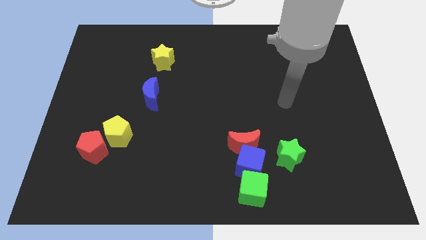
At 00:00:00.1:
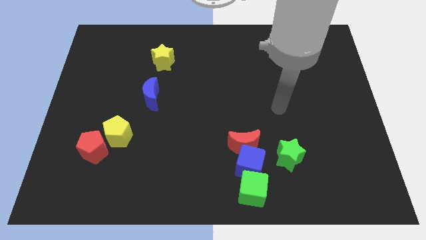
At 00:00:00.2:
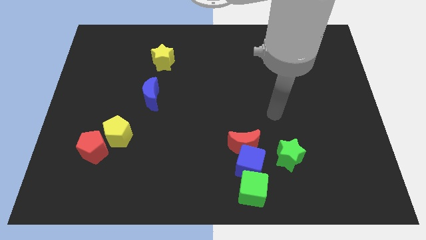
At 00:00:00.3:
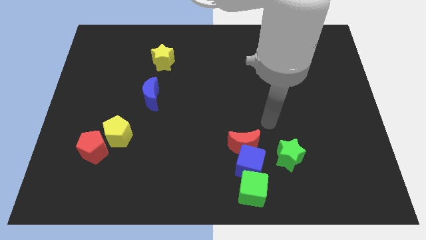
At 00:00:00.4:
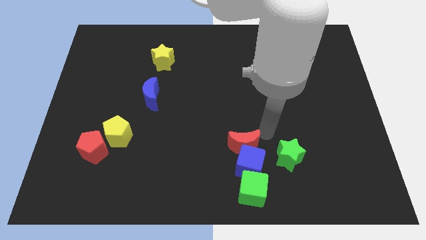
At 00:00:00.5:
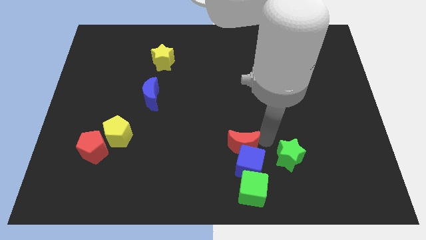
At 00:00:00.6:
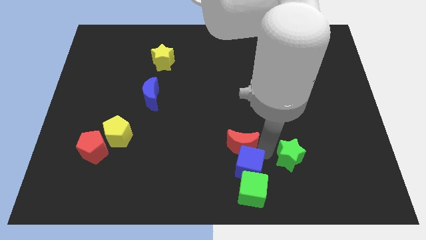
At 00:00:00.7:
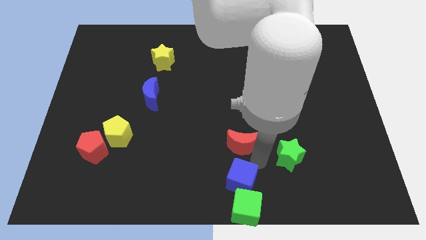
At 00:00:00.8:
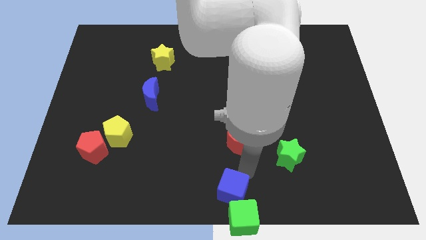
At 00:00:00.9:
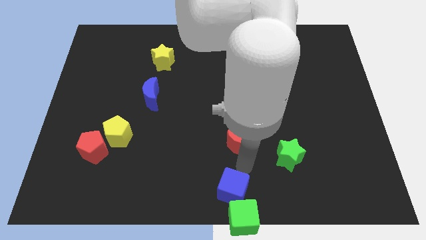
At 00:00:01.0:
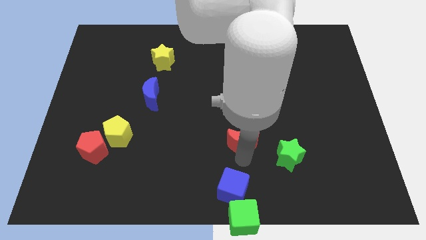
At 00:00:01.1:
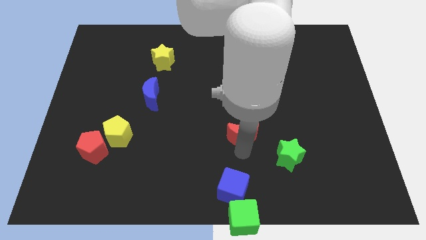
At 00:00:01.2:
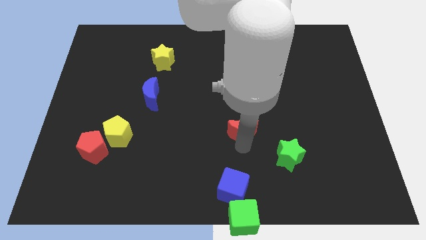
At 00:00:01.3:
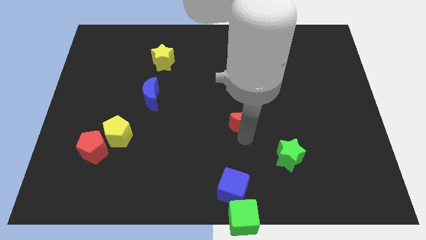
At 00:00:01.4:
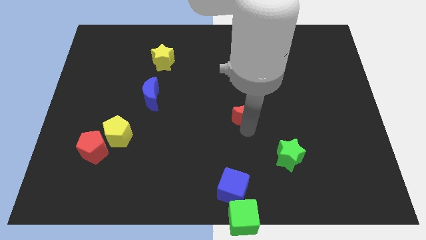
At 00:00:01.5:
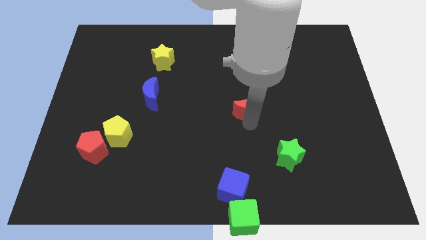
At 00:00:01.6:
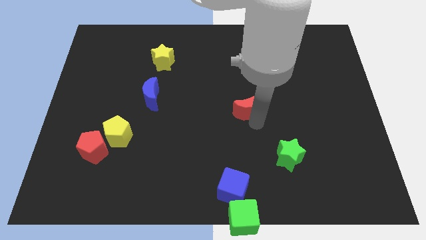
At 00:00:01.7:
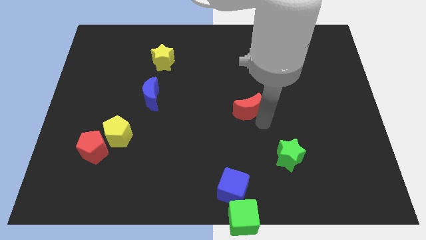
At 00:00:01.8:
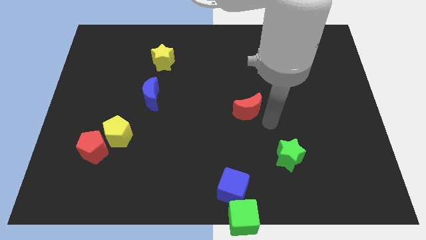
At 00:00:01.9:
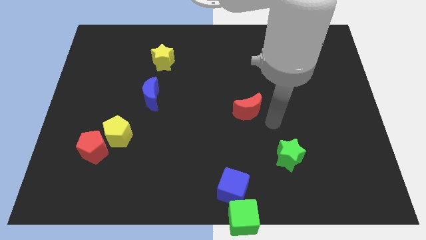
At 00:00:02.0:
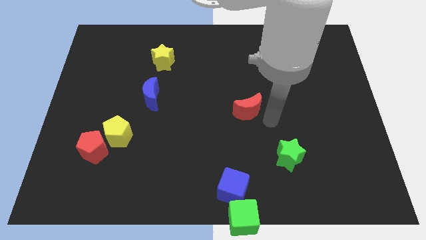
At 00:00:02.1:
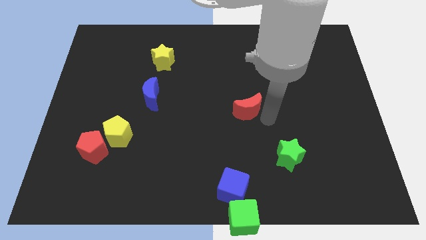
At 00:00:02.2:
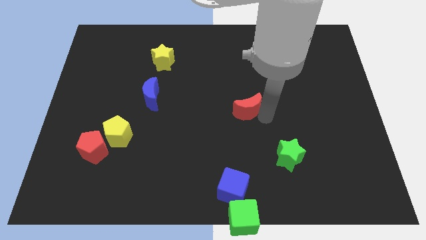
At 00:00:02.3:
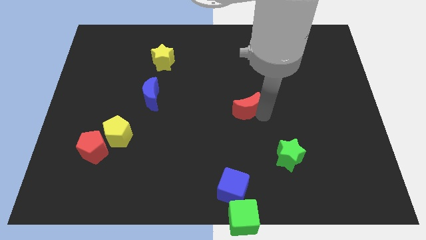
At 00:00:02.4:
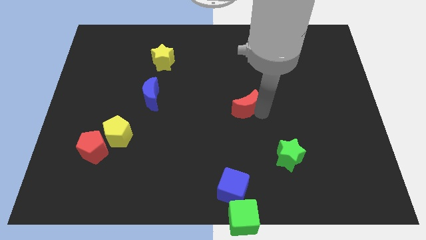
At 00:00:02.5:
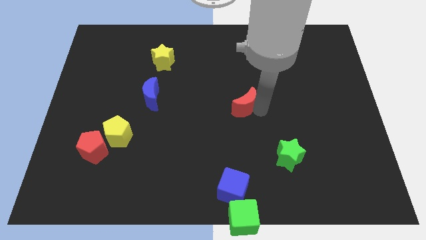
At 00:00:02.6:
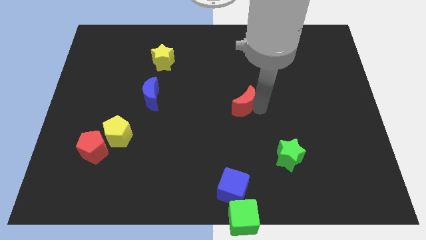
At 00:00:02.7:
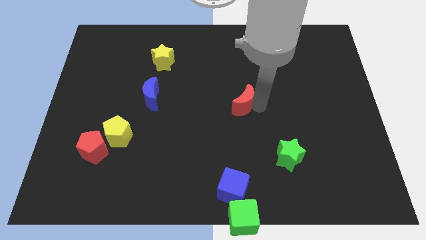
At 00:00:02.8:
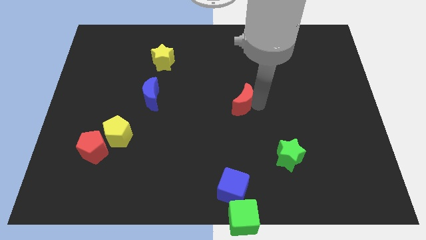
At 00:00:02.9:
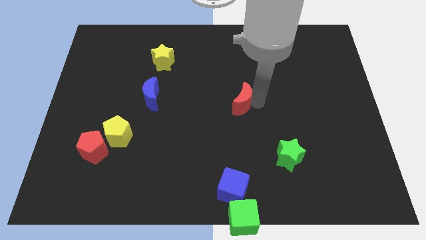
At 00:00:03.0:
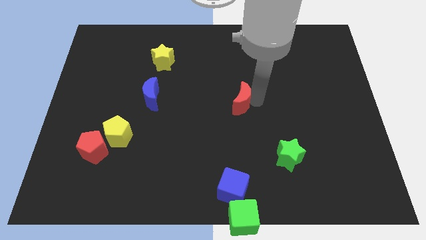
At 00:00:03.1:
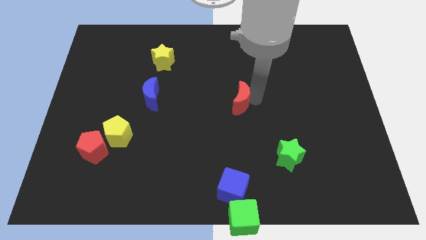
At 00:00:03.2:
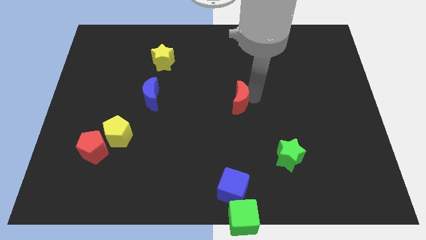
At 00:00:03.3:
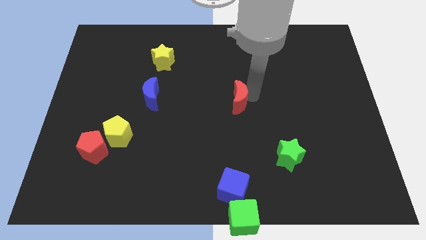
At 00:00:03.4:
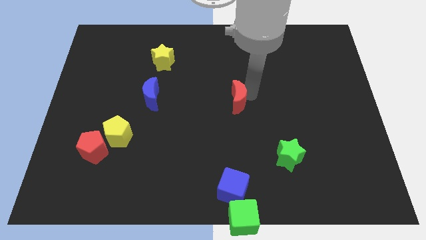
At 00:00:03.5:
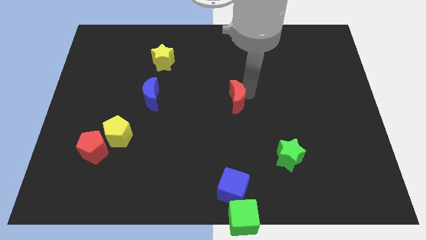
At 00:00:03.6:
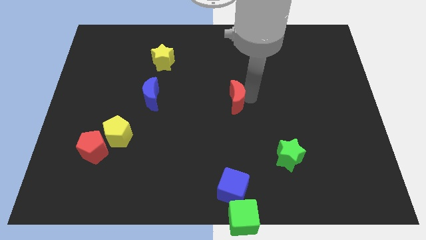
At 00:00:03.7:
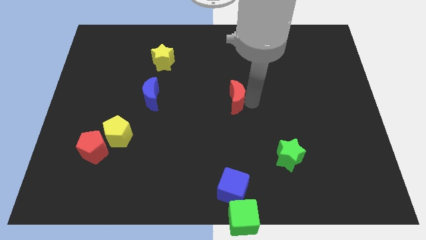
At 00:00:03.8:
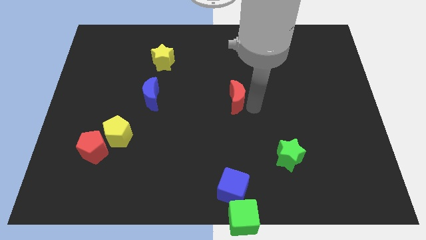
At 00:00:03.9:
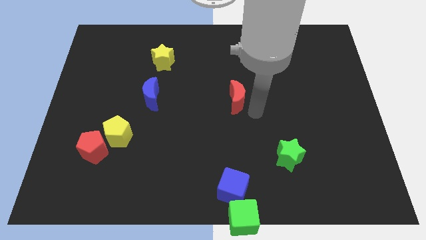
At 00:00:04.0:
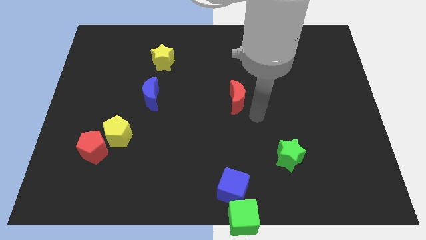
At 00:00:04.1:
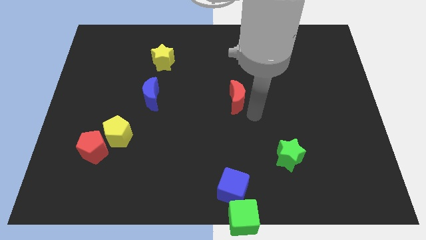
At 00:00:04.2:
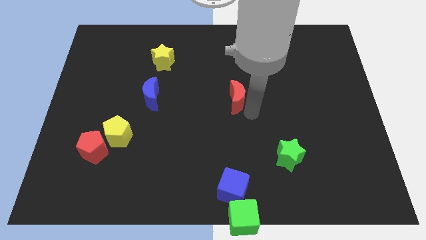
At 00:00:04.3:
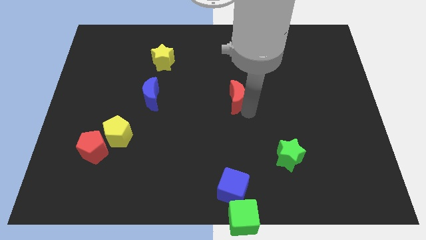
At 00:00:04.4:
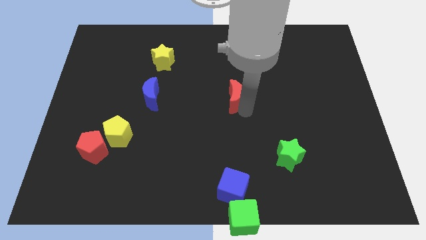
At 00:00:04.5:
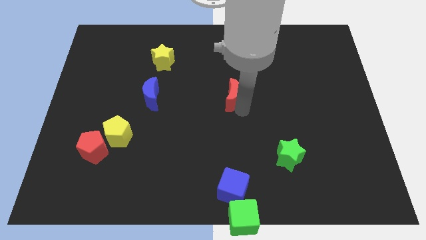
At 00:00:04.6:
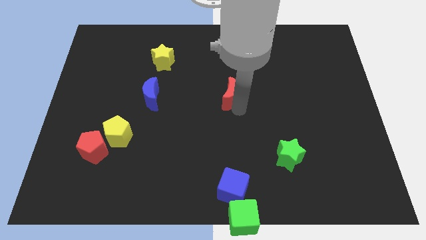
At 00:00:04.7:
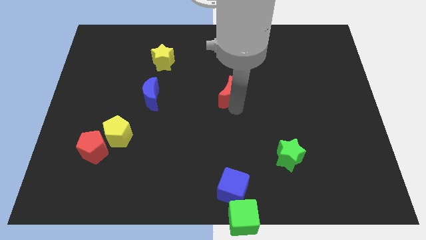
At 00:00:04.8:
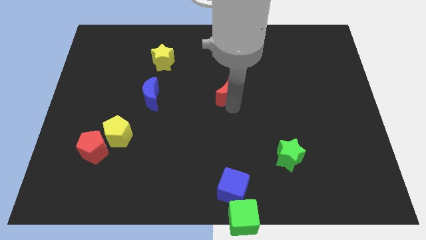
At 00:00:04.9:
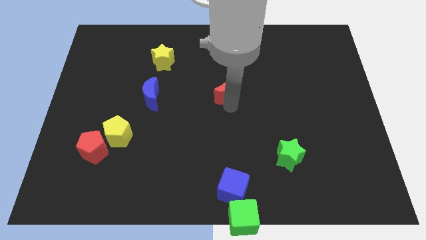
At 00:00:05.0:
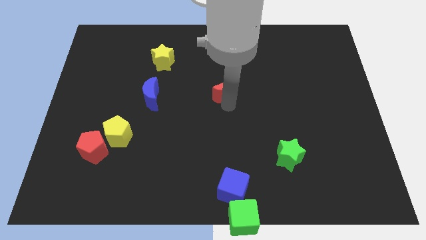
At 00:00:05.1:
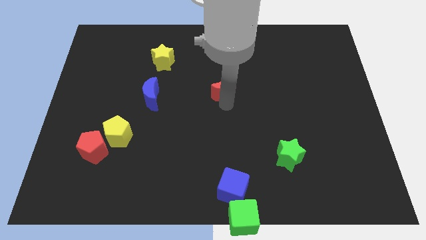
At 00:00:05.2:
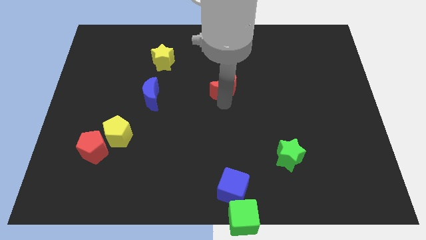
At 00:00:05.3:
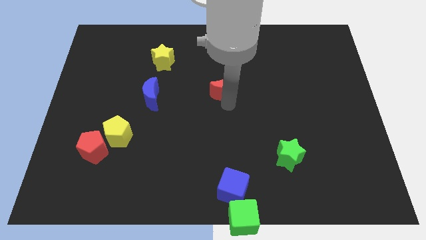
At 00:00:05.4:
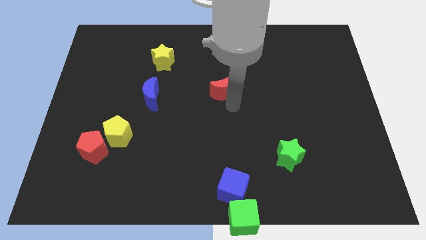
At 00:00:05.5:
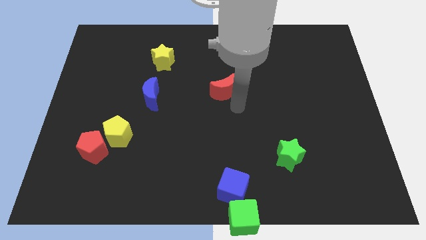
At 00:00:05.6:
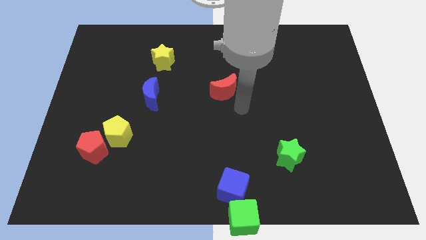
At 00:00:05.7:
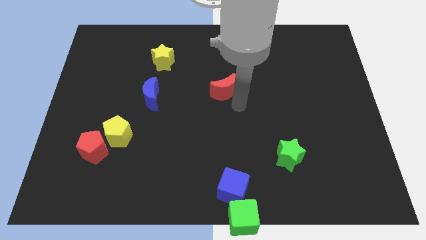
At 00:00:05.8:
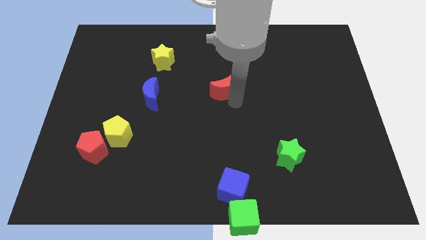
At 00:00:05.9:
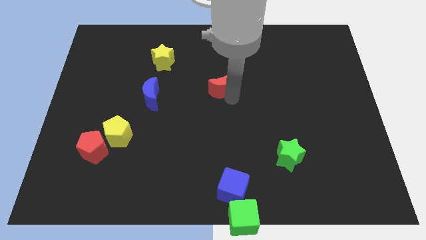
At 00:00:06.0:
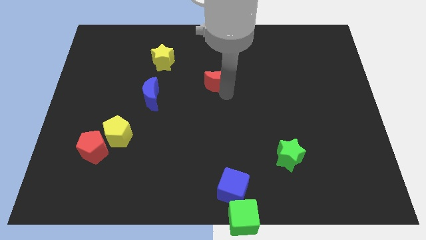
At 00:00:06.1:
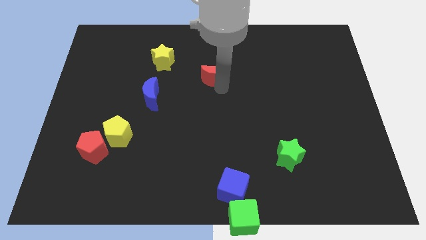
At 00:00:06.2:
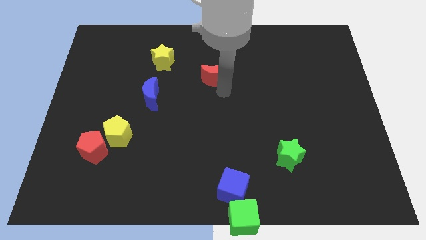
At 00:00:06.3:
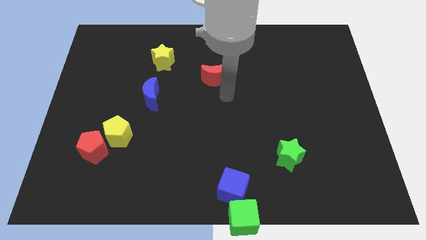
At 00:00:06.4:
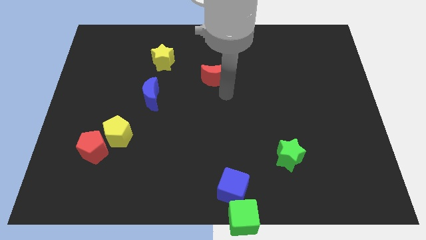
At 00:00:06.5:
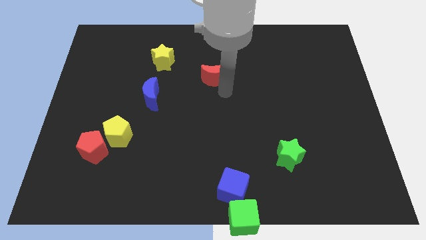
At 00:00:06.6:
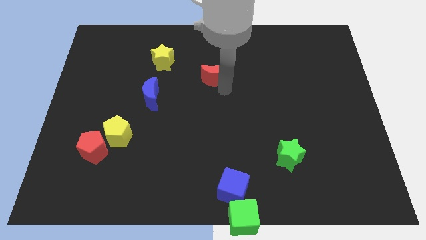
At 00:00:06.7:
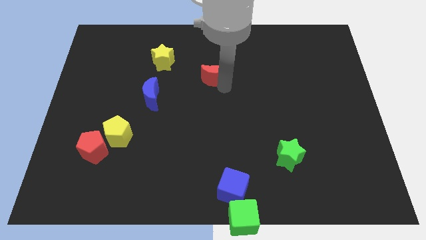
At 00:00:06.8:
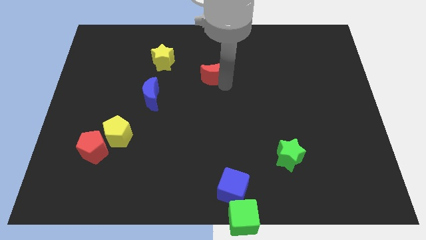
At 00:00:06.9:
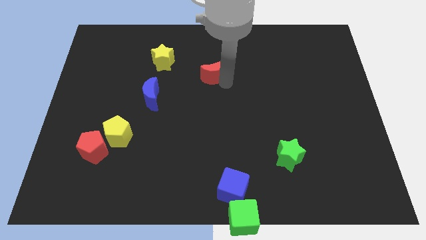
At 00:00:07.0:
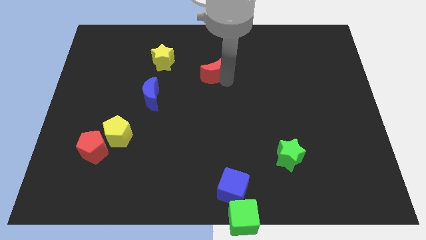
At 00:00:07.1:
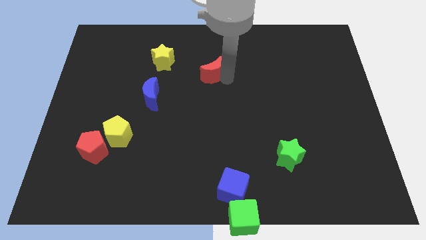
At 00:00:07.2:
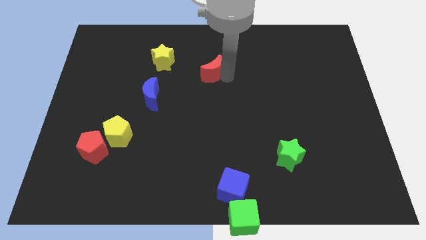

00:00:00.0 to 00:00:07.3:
put the red moon to the right of the yellow star
